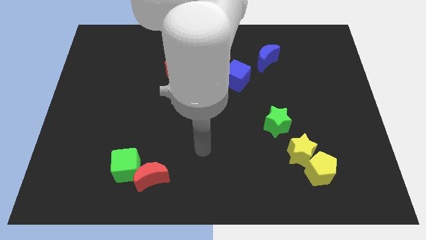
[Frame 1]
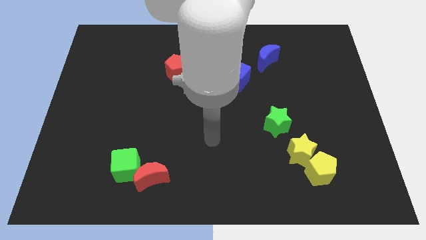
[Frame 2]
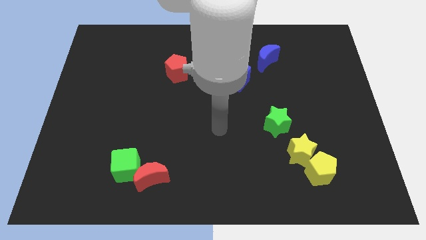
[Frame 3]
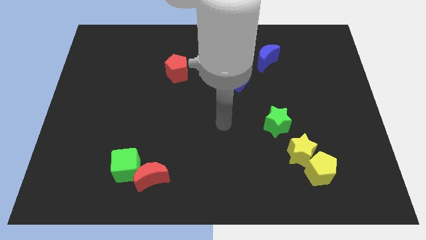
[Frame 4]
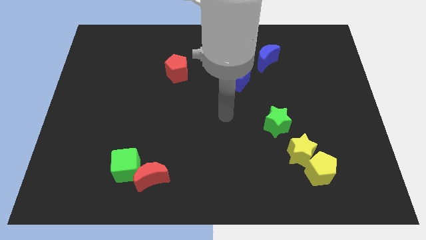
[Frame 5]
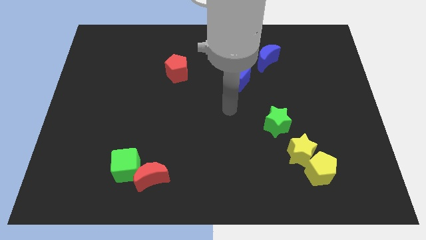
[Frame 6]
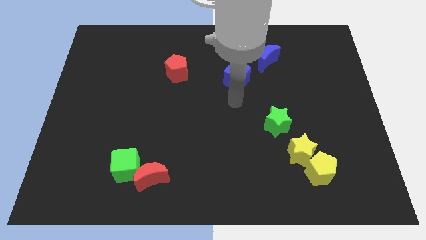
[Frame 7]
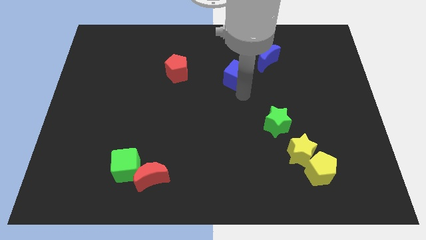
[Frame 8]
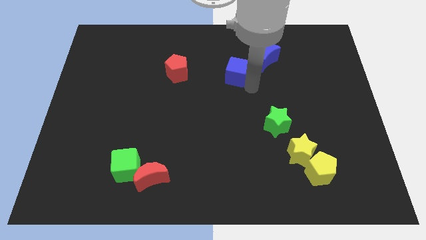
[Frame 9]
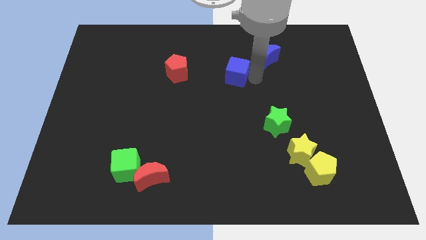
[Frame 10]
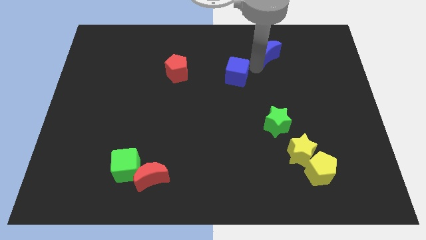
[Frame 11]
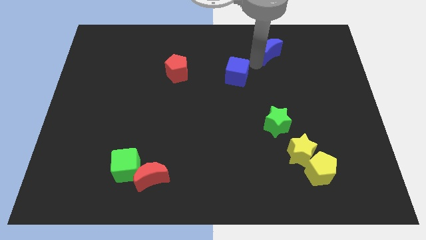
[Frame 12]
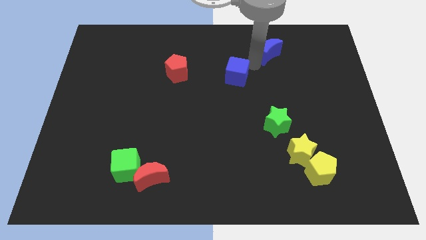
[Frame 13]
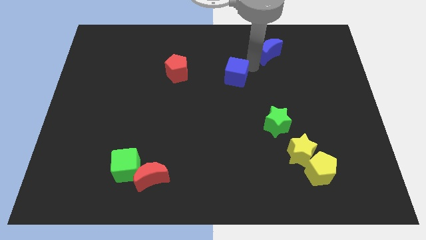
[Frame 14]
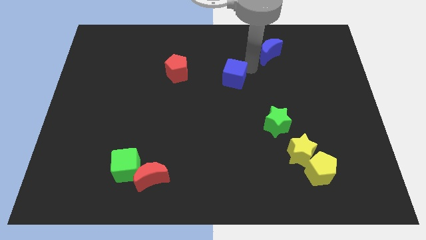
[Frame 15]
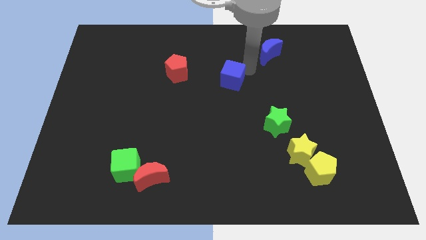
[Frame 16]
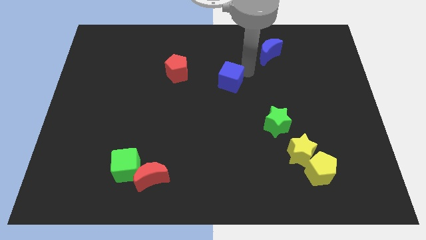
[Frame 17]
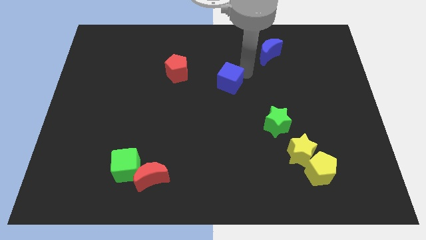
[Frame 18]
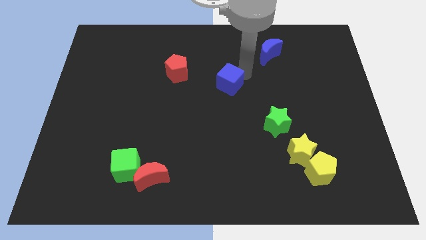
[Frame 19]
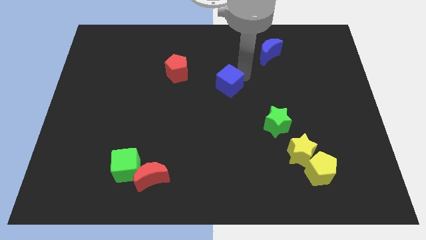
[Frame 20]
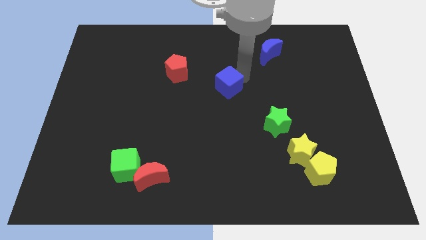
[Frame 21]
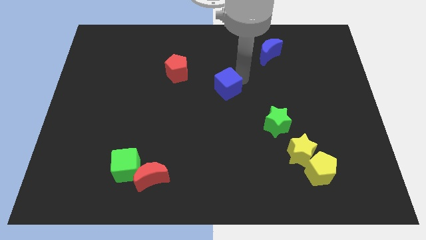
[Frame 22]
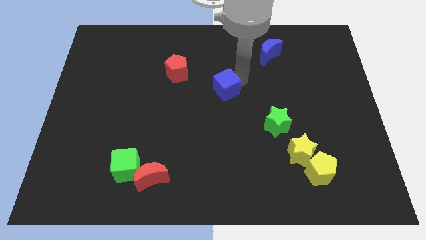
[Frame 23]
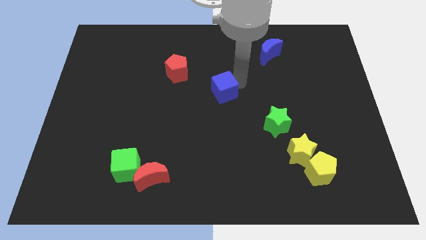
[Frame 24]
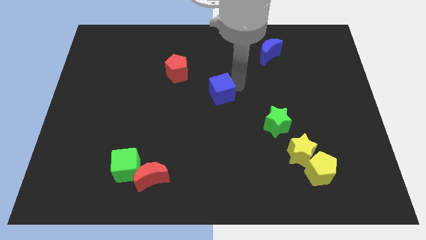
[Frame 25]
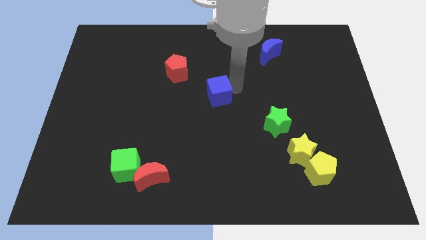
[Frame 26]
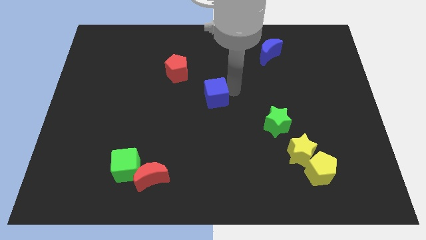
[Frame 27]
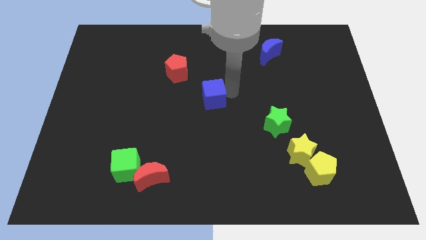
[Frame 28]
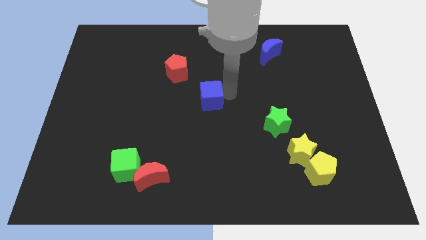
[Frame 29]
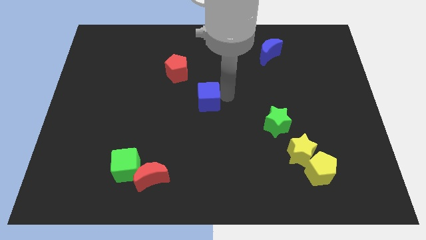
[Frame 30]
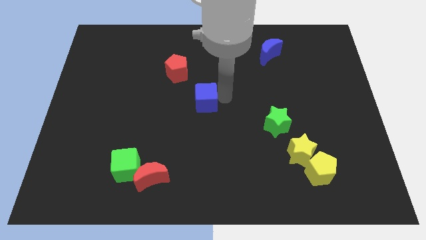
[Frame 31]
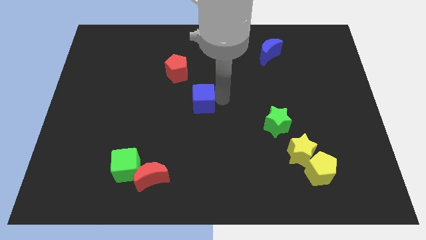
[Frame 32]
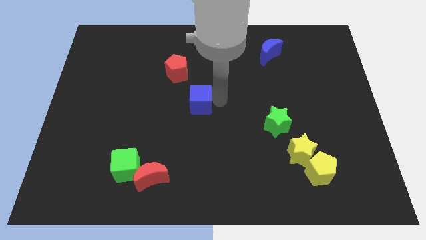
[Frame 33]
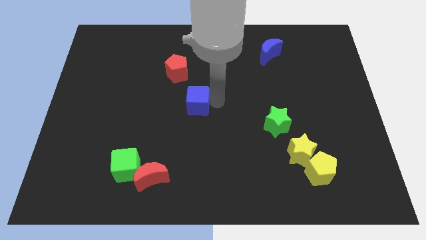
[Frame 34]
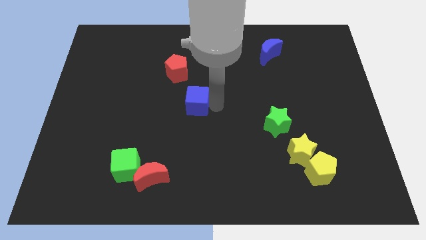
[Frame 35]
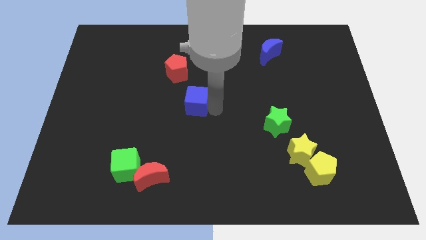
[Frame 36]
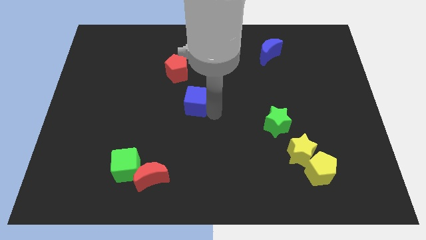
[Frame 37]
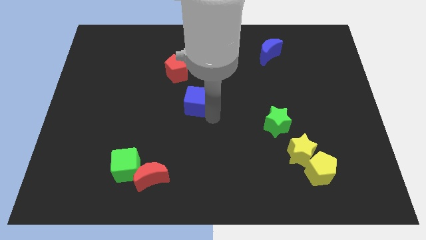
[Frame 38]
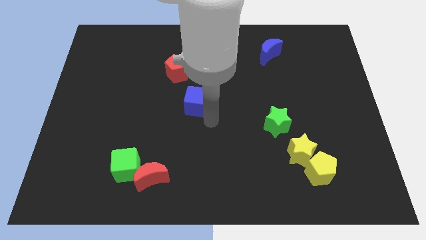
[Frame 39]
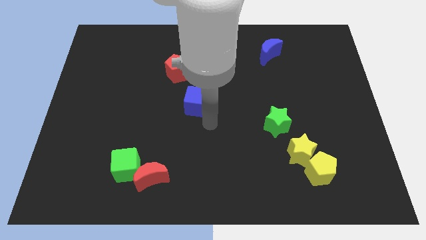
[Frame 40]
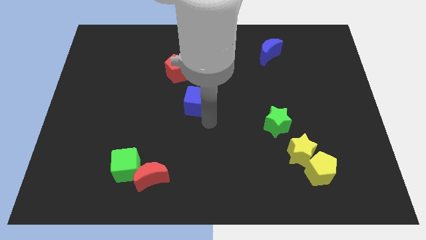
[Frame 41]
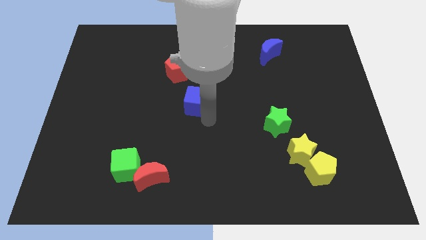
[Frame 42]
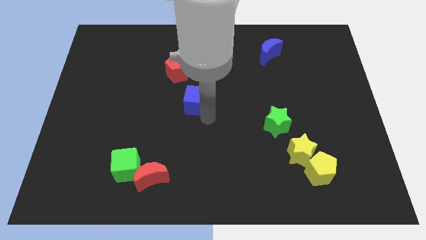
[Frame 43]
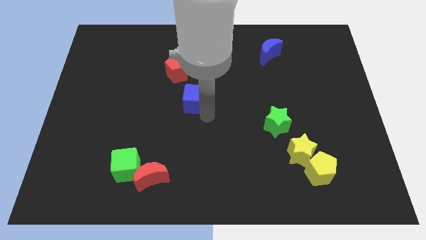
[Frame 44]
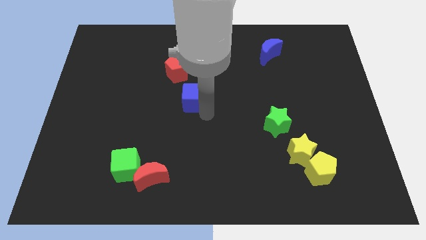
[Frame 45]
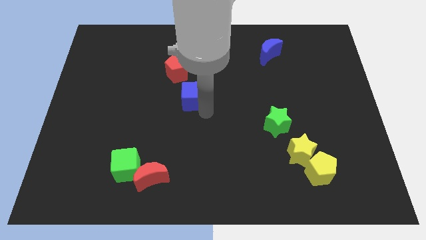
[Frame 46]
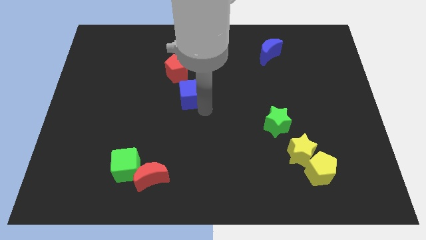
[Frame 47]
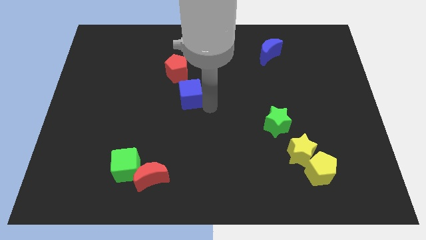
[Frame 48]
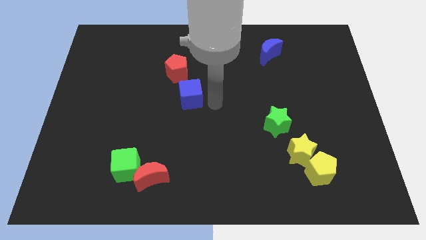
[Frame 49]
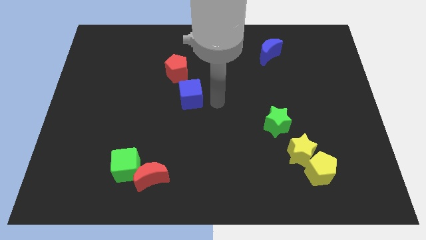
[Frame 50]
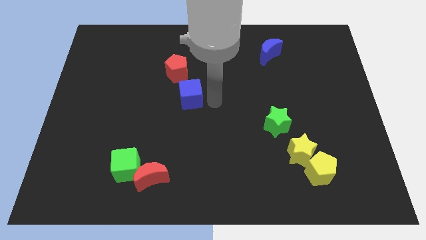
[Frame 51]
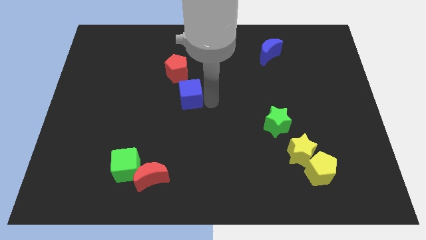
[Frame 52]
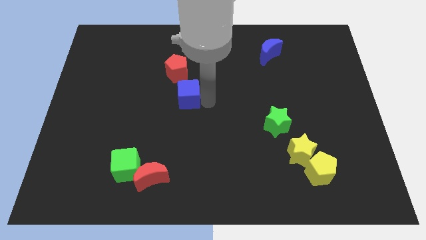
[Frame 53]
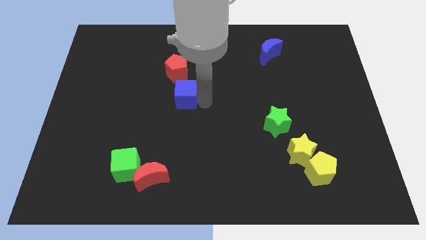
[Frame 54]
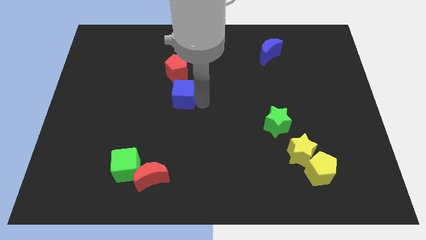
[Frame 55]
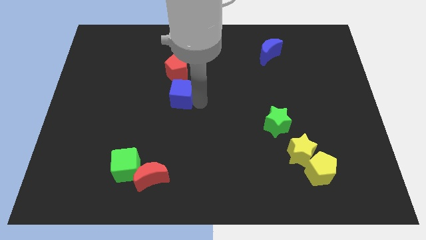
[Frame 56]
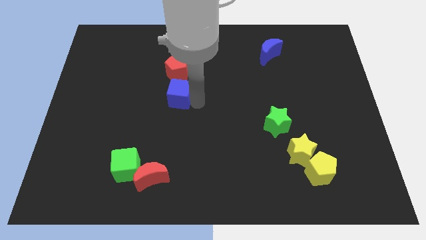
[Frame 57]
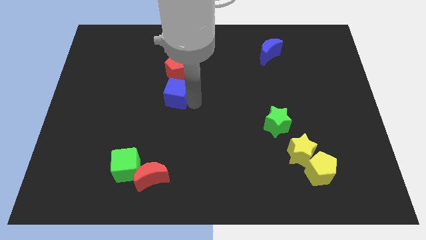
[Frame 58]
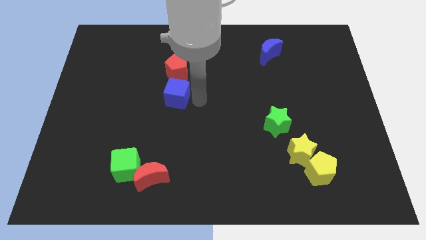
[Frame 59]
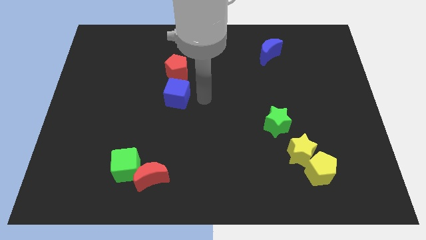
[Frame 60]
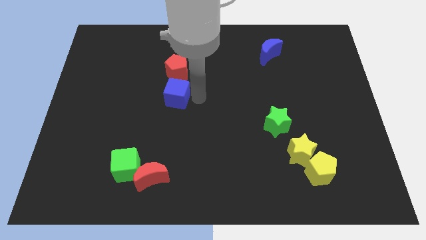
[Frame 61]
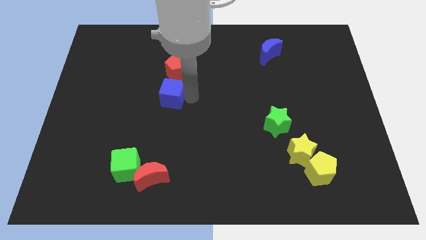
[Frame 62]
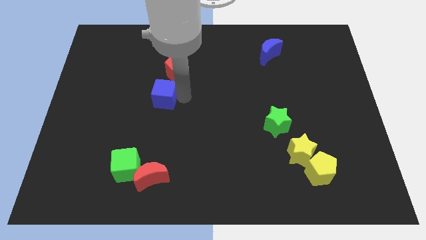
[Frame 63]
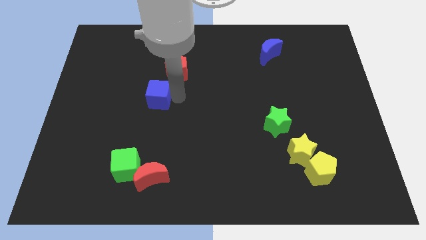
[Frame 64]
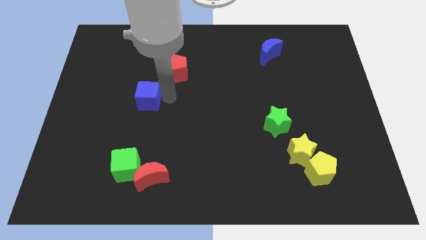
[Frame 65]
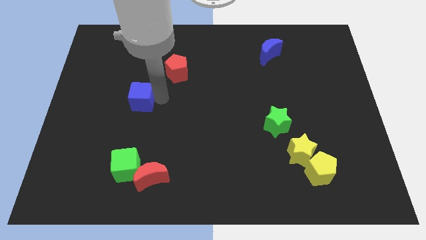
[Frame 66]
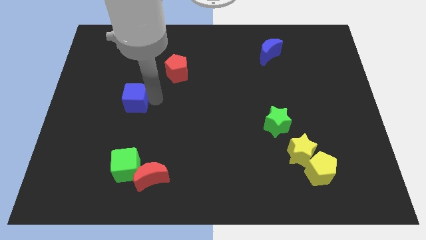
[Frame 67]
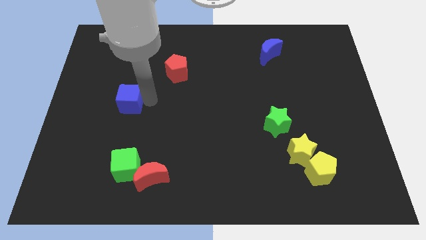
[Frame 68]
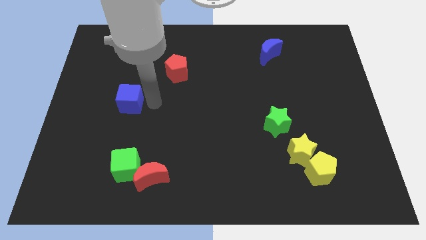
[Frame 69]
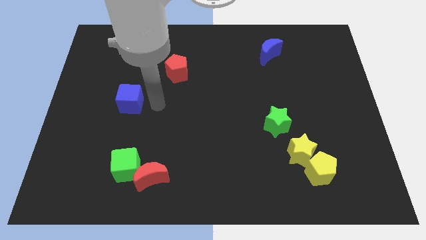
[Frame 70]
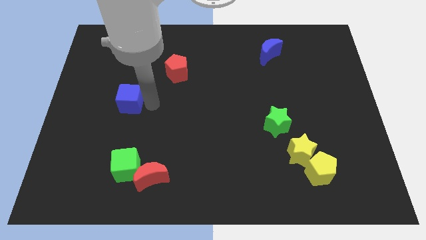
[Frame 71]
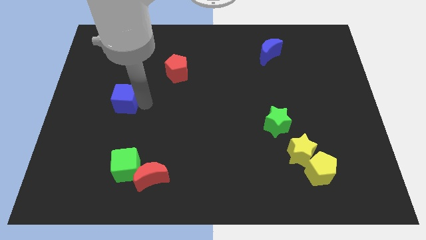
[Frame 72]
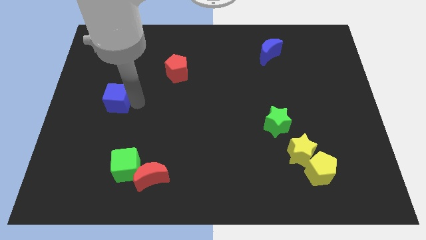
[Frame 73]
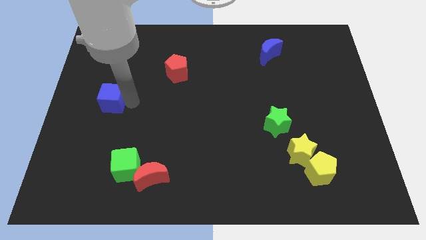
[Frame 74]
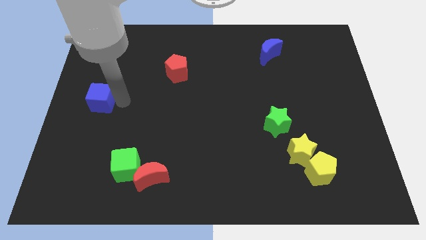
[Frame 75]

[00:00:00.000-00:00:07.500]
move the blue cube to the left side
